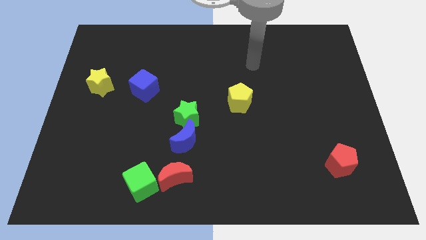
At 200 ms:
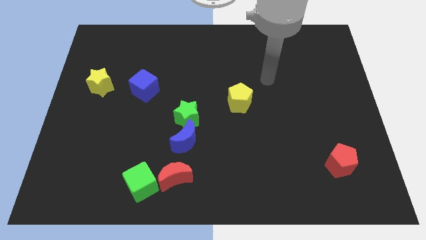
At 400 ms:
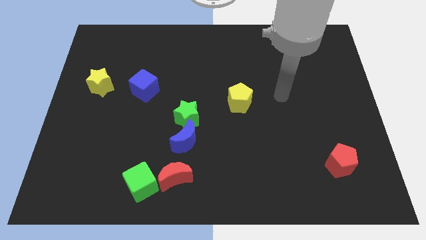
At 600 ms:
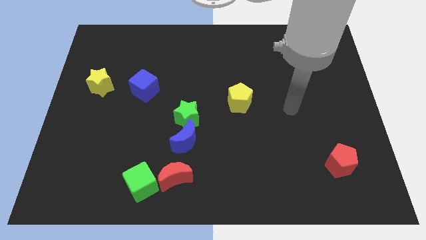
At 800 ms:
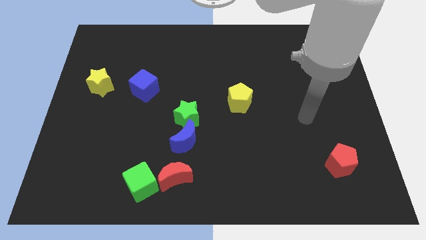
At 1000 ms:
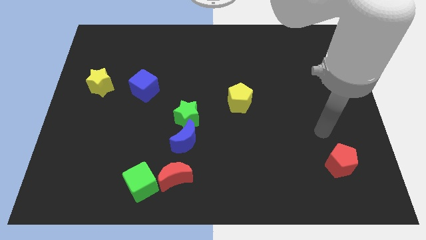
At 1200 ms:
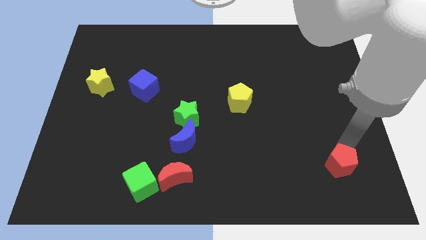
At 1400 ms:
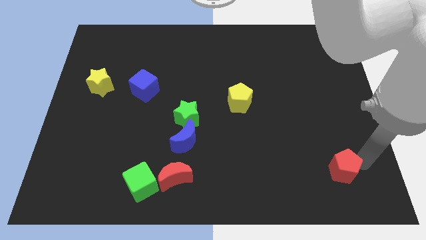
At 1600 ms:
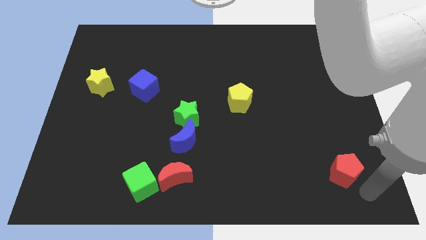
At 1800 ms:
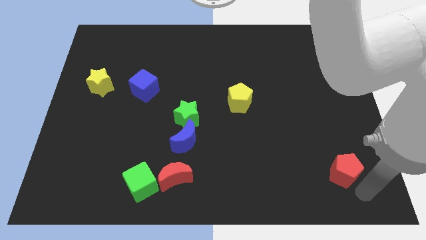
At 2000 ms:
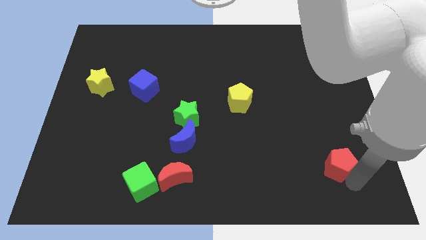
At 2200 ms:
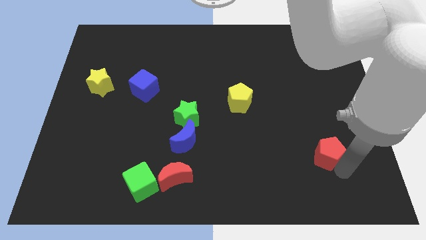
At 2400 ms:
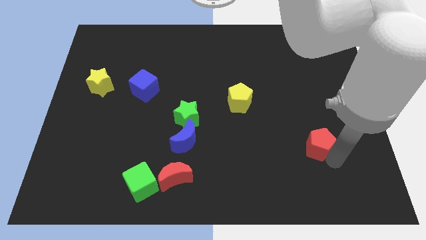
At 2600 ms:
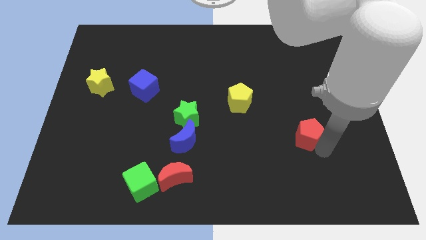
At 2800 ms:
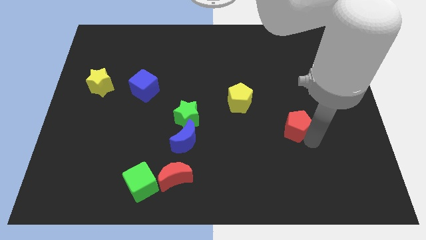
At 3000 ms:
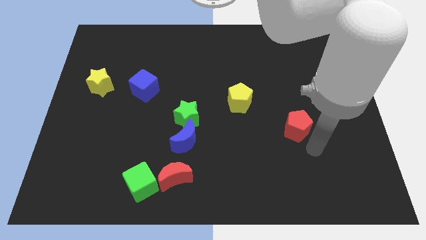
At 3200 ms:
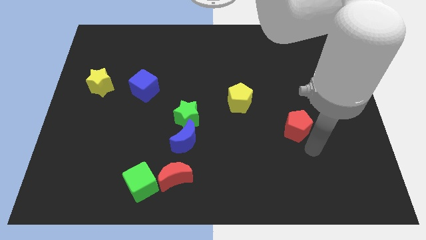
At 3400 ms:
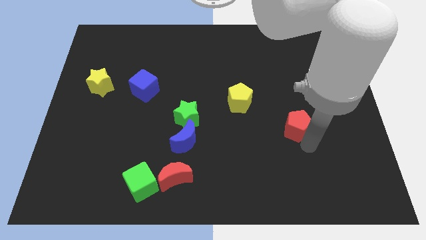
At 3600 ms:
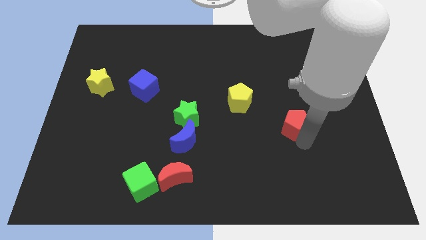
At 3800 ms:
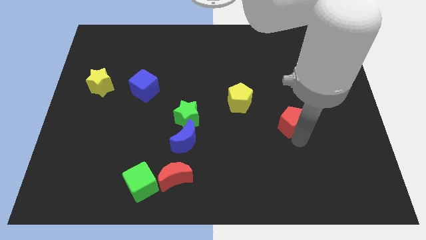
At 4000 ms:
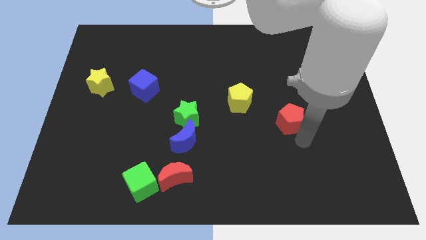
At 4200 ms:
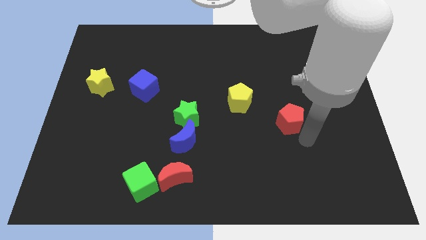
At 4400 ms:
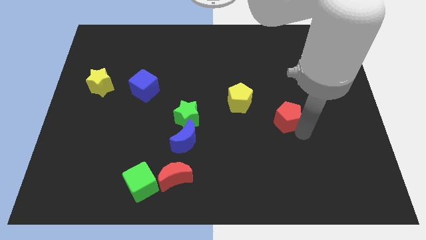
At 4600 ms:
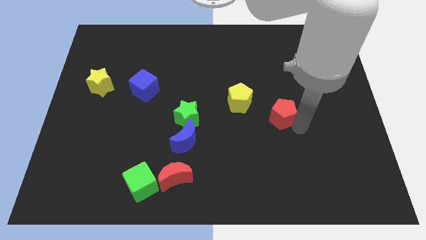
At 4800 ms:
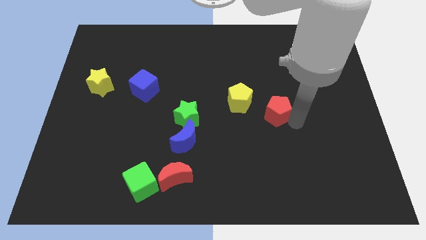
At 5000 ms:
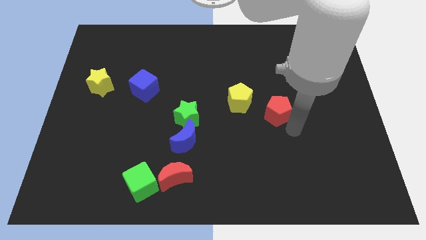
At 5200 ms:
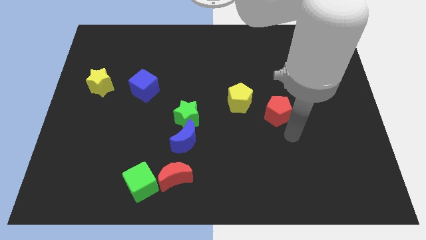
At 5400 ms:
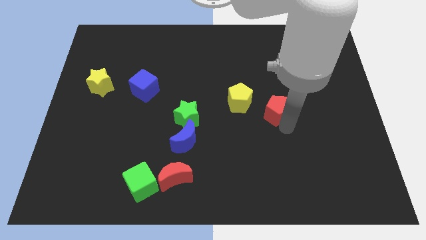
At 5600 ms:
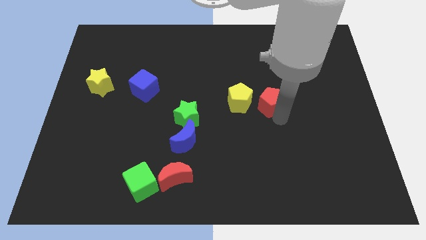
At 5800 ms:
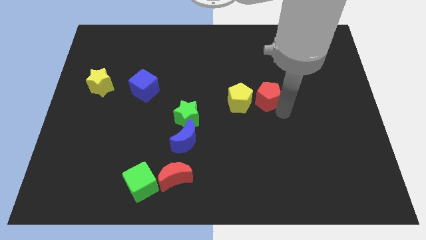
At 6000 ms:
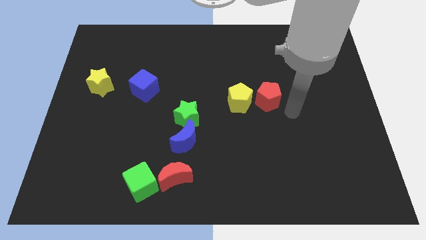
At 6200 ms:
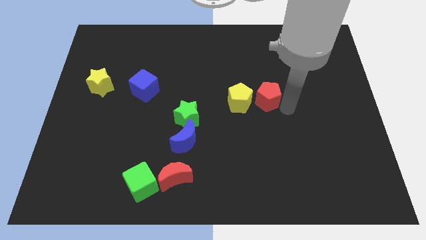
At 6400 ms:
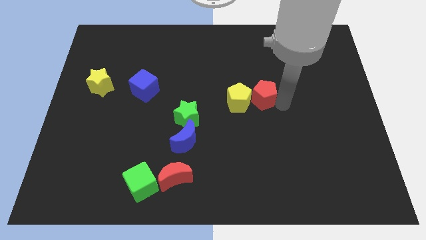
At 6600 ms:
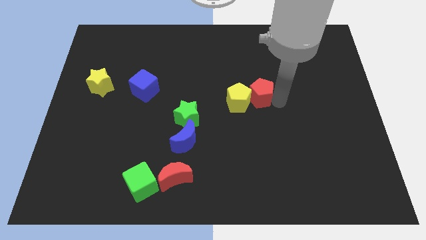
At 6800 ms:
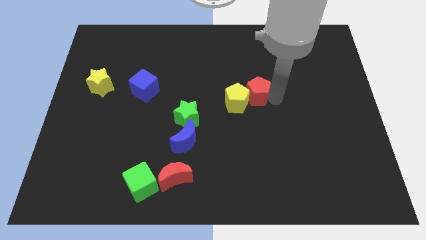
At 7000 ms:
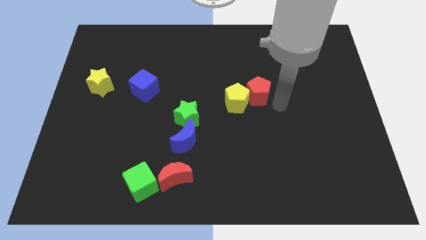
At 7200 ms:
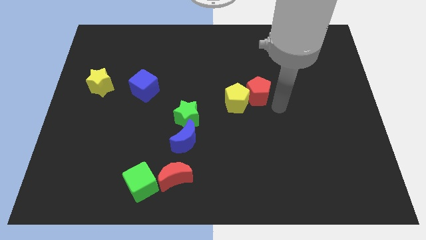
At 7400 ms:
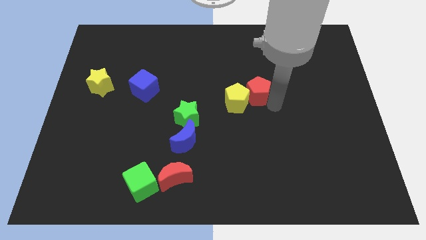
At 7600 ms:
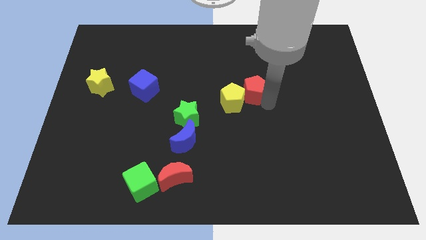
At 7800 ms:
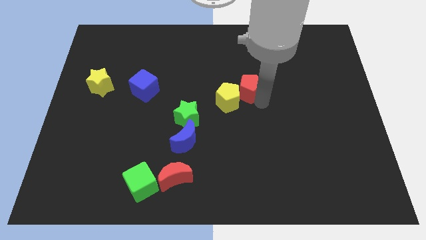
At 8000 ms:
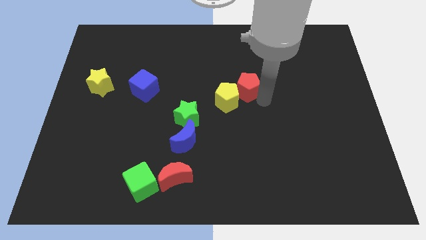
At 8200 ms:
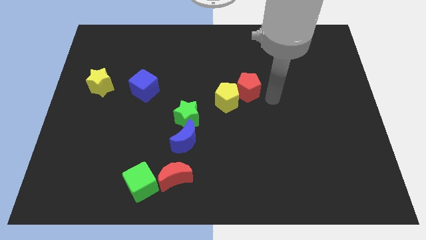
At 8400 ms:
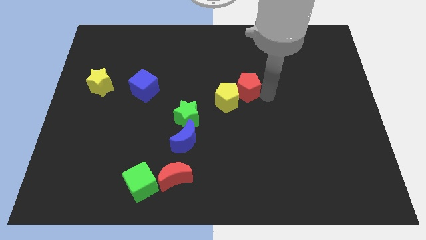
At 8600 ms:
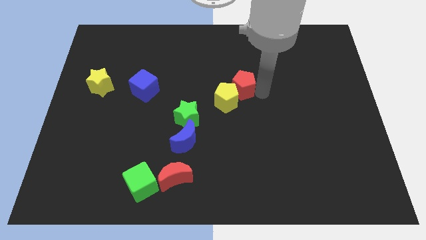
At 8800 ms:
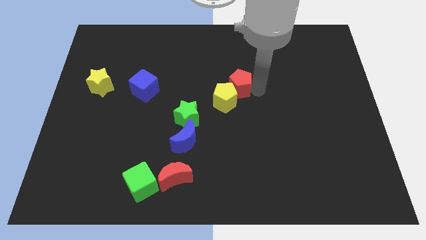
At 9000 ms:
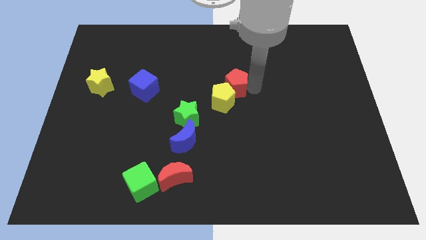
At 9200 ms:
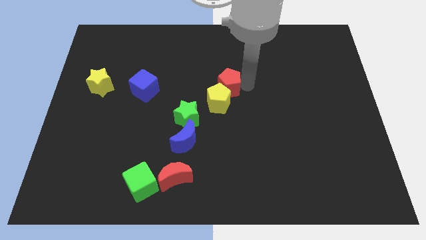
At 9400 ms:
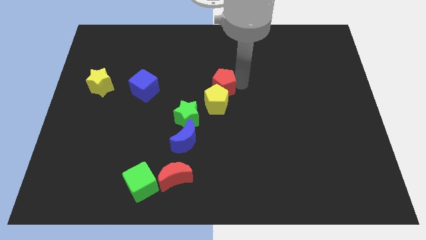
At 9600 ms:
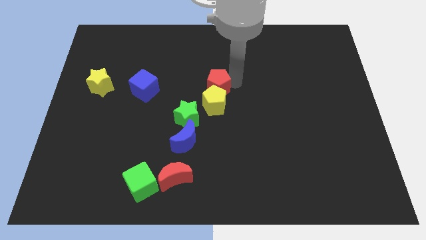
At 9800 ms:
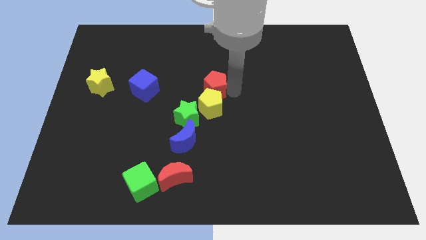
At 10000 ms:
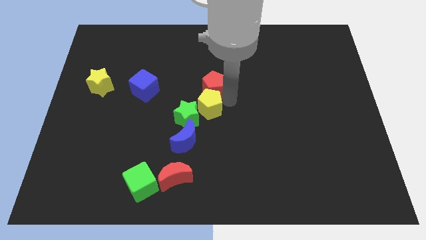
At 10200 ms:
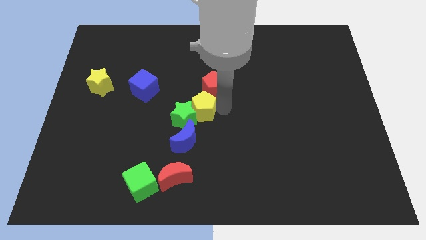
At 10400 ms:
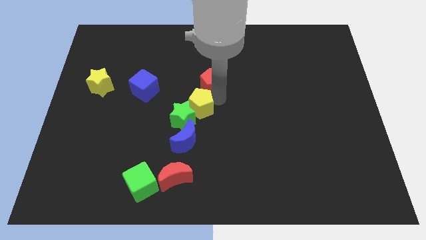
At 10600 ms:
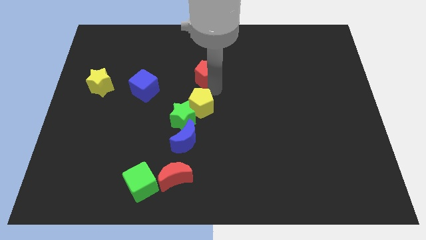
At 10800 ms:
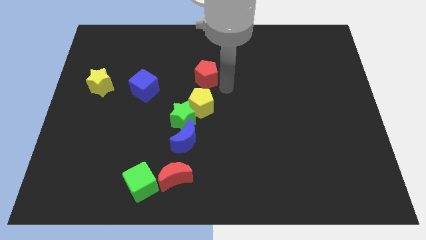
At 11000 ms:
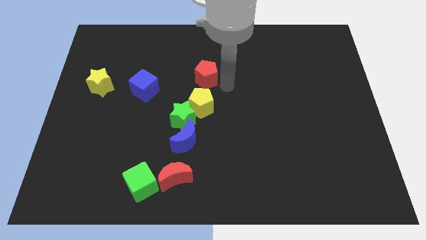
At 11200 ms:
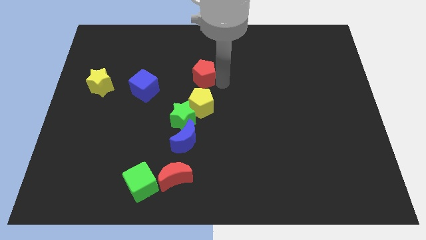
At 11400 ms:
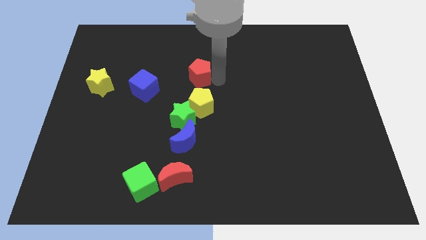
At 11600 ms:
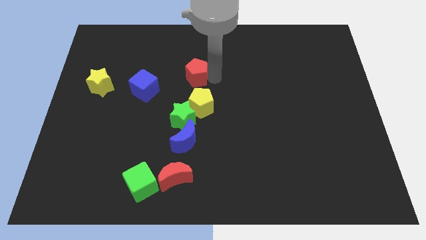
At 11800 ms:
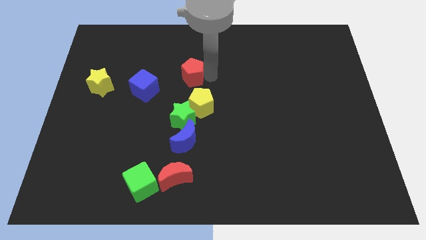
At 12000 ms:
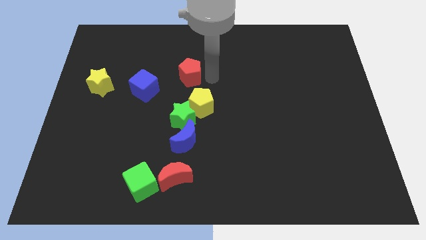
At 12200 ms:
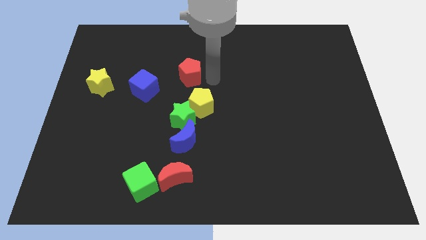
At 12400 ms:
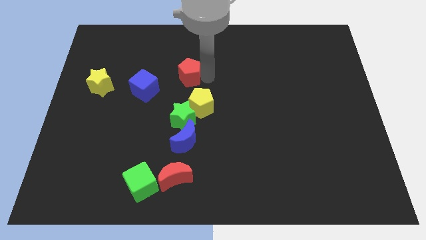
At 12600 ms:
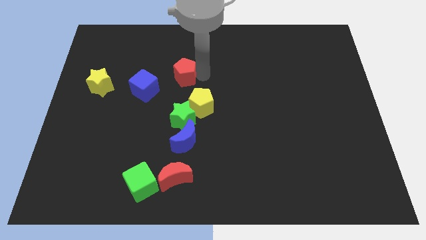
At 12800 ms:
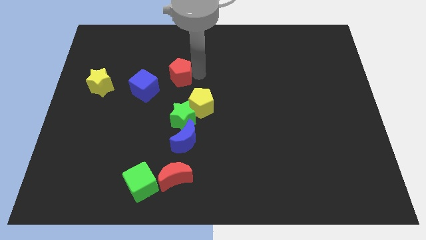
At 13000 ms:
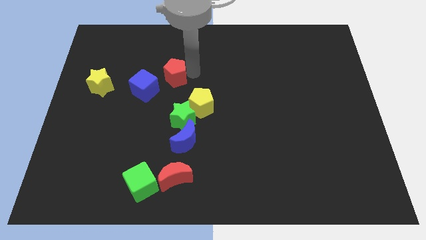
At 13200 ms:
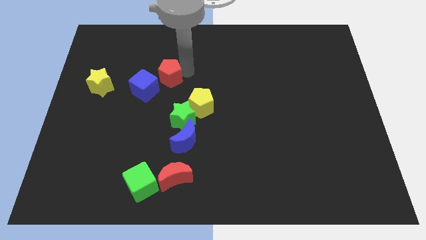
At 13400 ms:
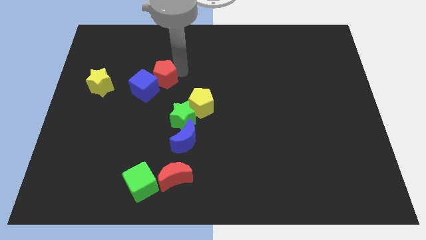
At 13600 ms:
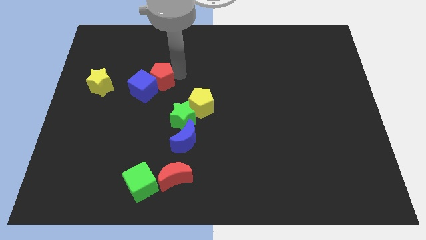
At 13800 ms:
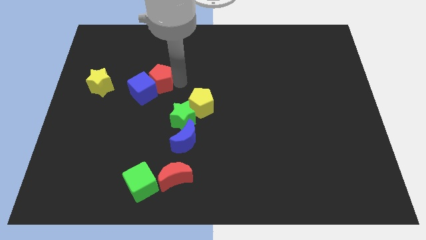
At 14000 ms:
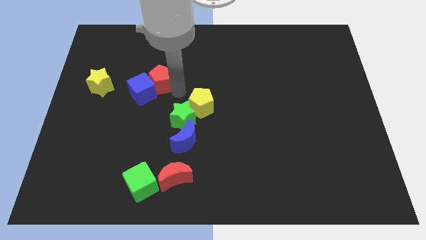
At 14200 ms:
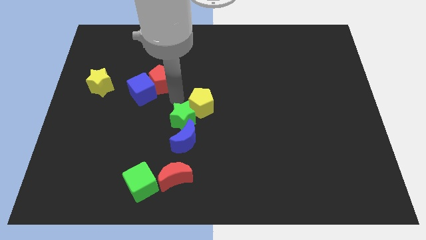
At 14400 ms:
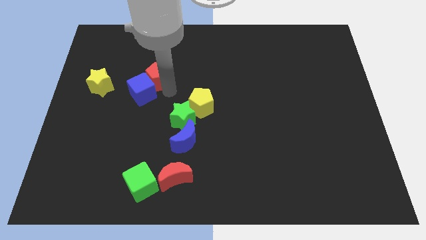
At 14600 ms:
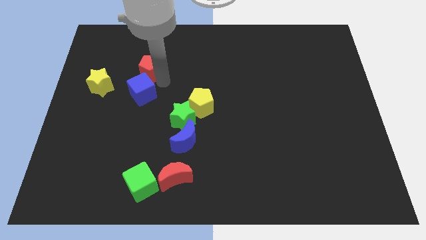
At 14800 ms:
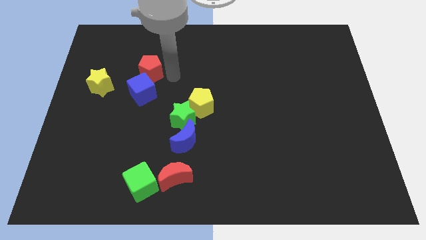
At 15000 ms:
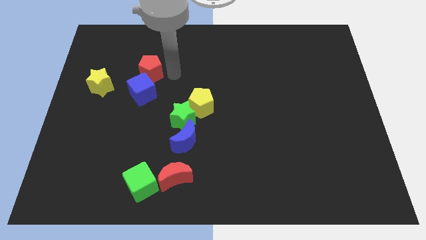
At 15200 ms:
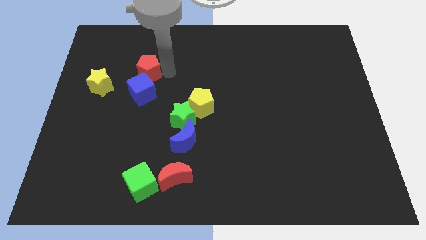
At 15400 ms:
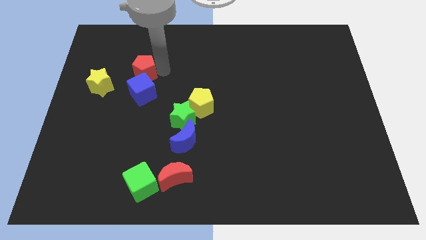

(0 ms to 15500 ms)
slide the red pentagon diagonally up and to the right of the yellow star
